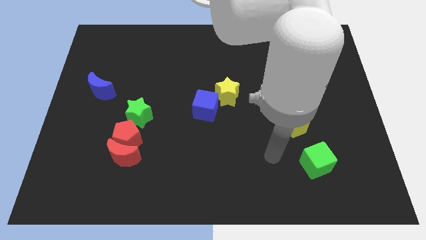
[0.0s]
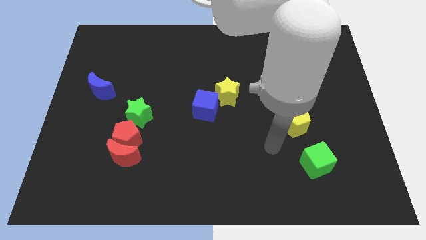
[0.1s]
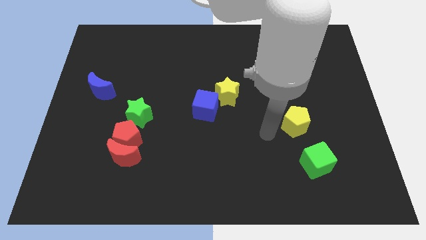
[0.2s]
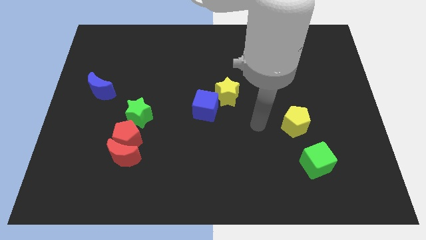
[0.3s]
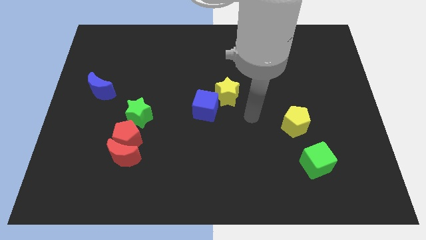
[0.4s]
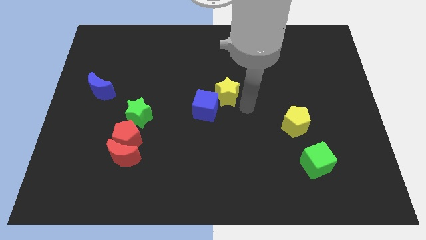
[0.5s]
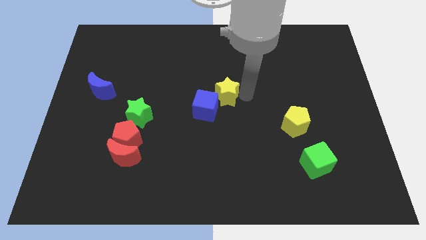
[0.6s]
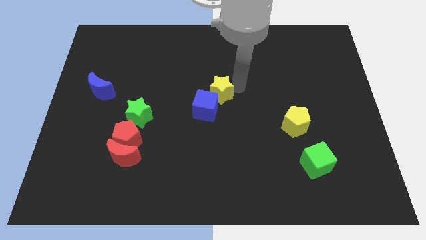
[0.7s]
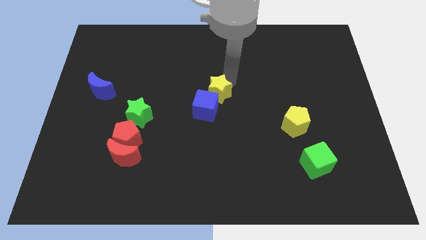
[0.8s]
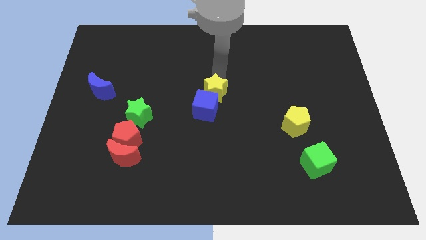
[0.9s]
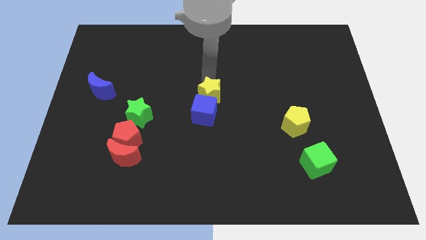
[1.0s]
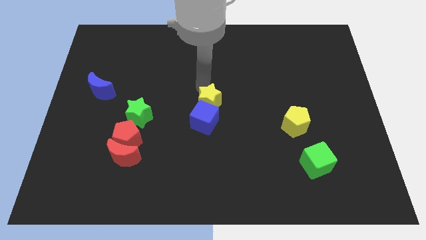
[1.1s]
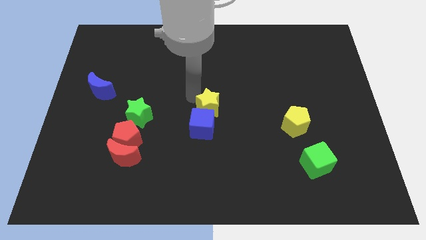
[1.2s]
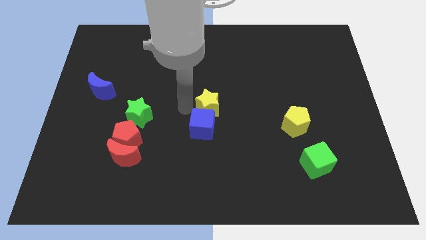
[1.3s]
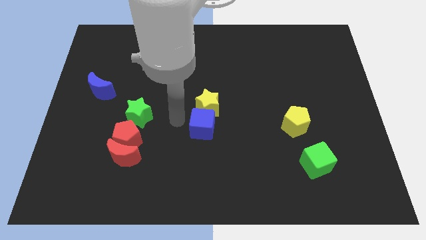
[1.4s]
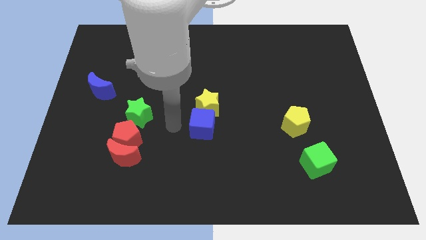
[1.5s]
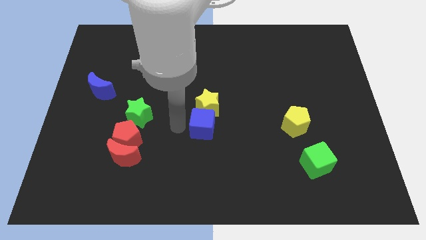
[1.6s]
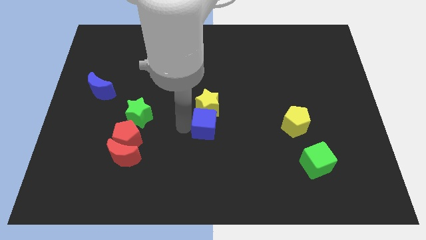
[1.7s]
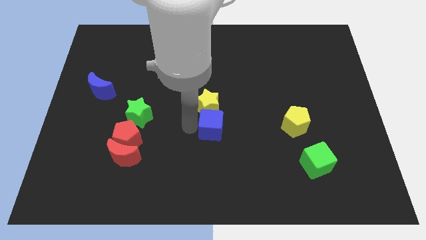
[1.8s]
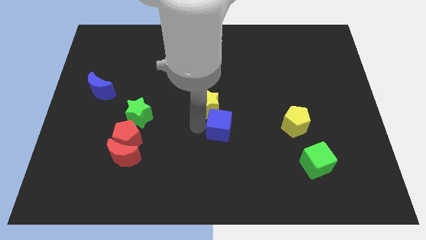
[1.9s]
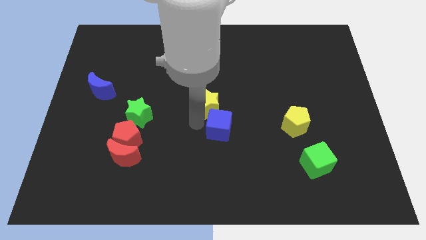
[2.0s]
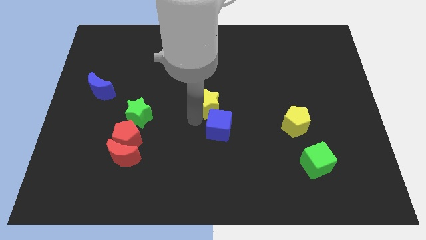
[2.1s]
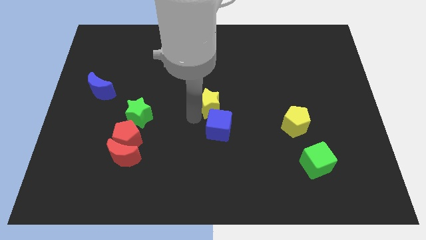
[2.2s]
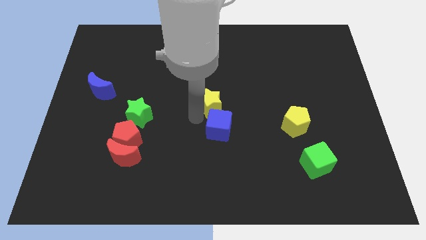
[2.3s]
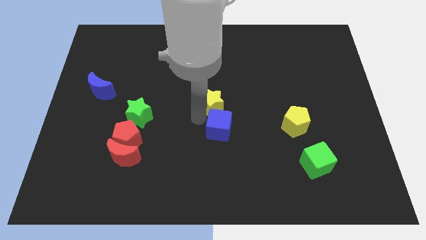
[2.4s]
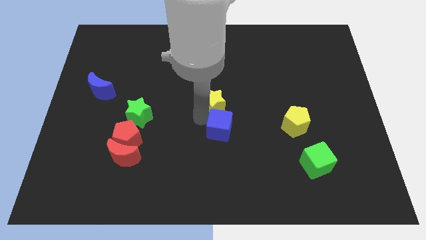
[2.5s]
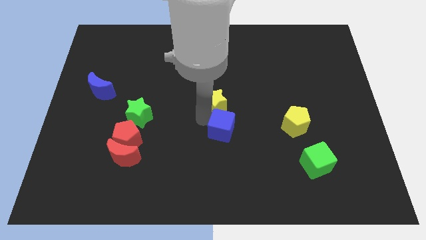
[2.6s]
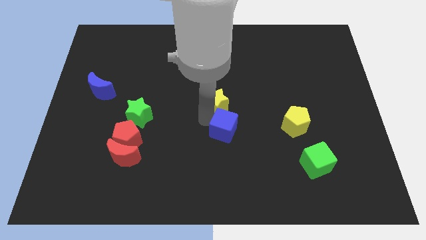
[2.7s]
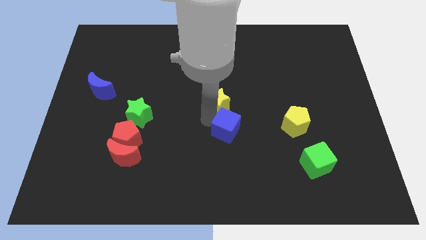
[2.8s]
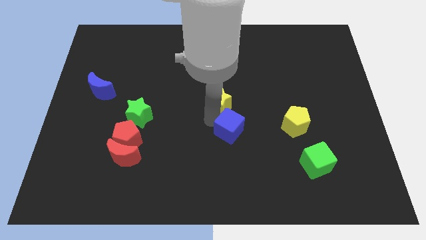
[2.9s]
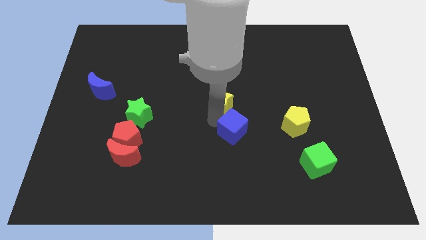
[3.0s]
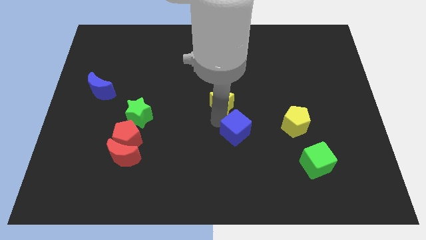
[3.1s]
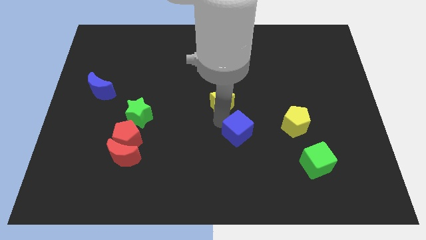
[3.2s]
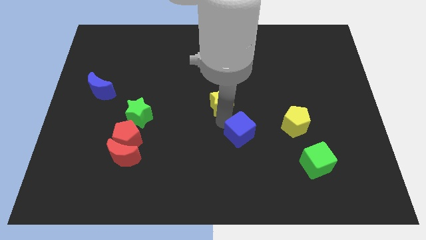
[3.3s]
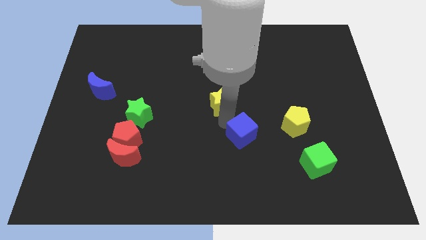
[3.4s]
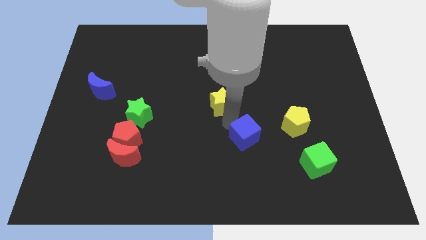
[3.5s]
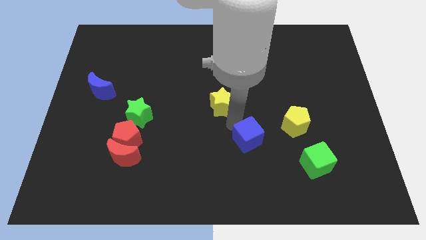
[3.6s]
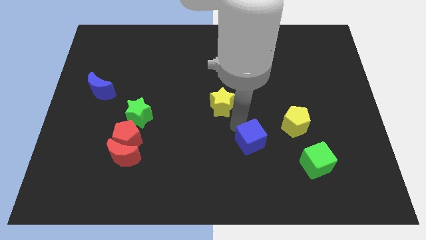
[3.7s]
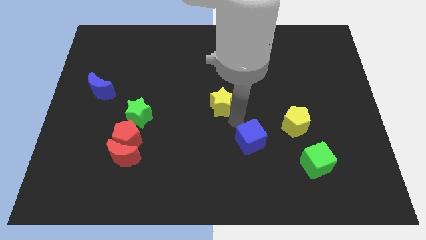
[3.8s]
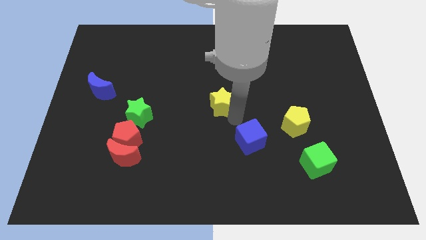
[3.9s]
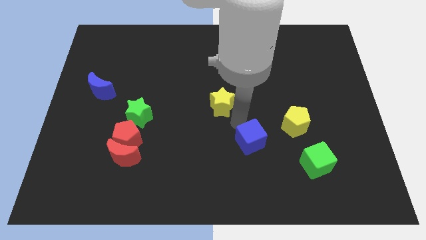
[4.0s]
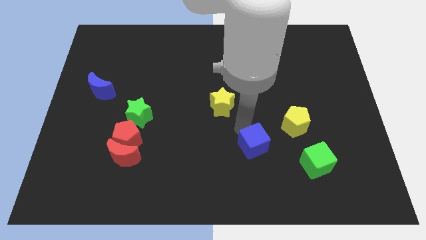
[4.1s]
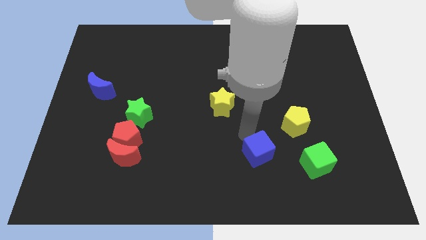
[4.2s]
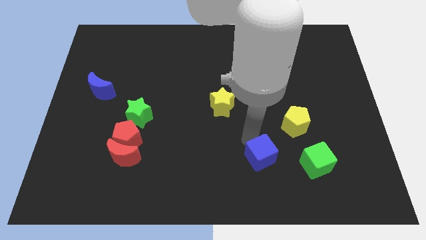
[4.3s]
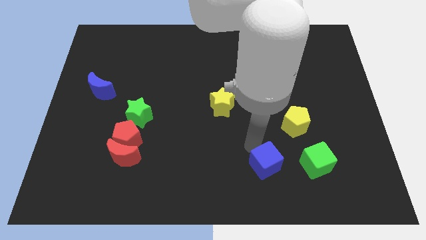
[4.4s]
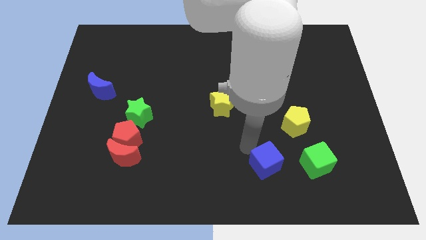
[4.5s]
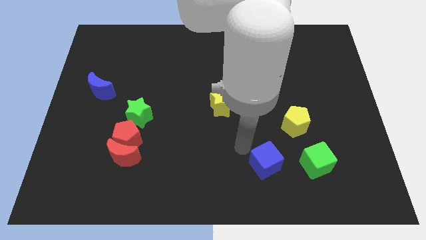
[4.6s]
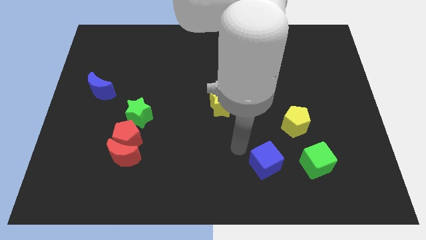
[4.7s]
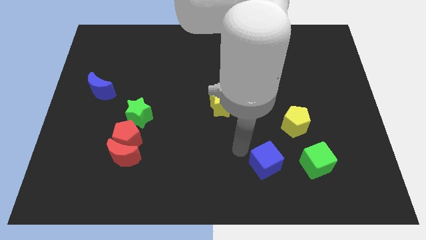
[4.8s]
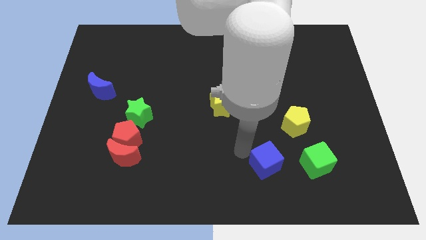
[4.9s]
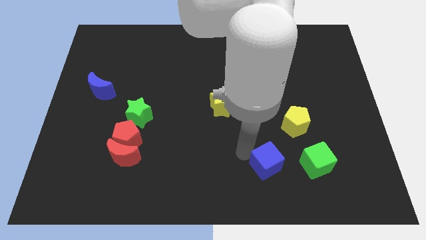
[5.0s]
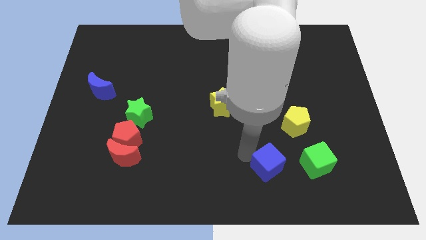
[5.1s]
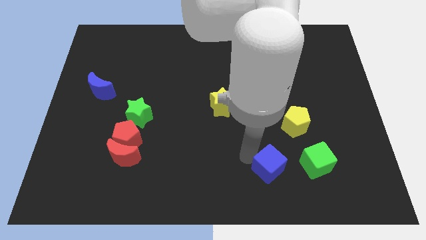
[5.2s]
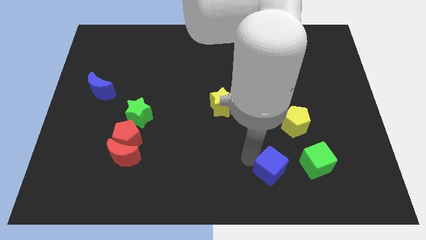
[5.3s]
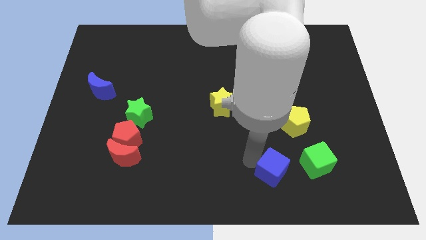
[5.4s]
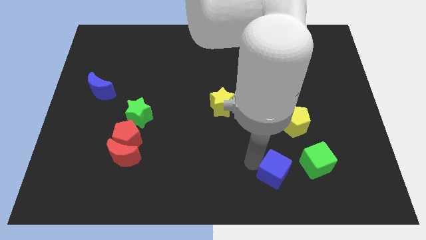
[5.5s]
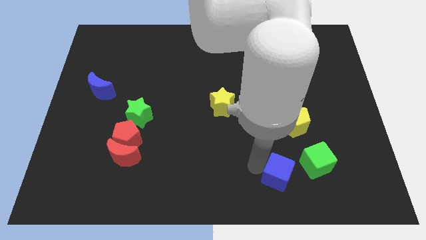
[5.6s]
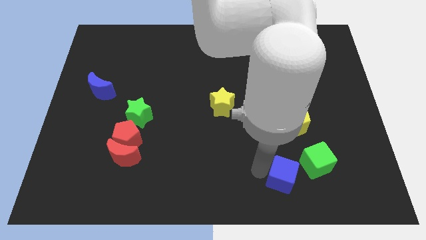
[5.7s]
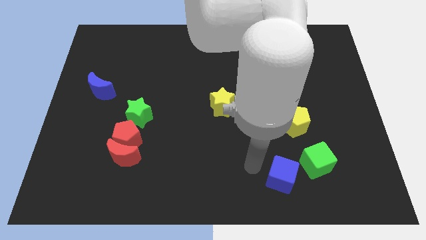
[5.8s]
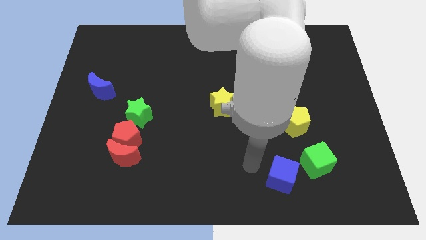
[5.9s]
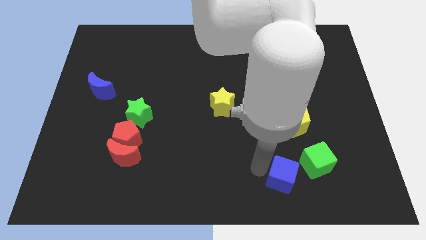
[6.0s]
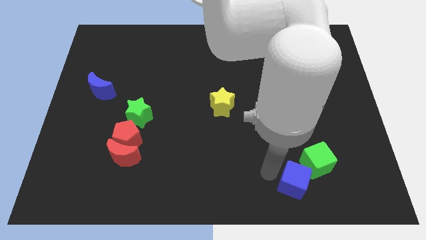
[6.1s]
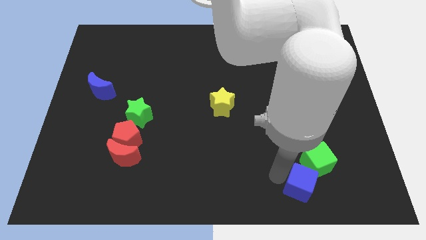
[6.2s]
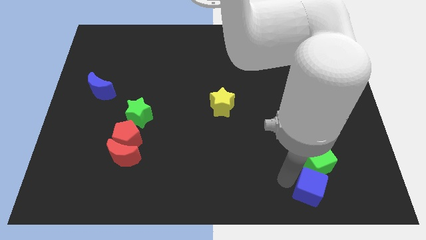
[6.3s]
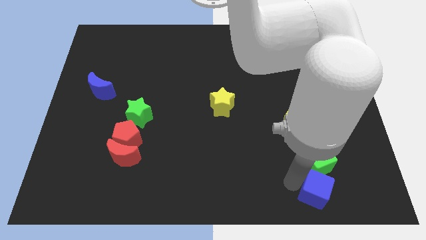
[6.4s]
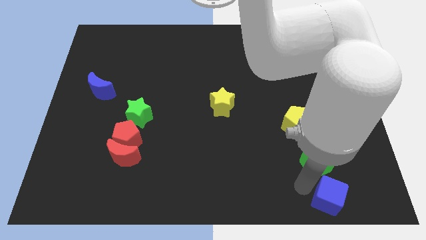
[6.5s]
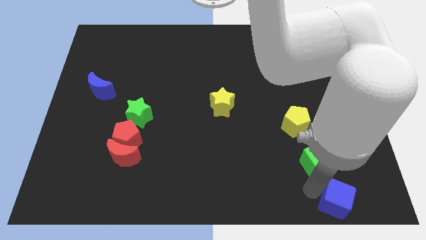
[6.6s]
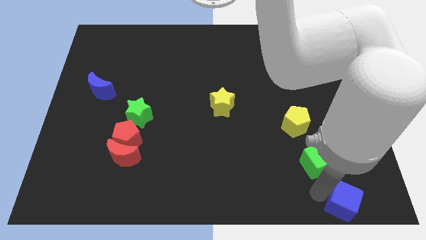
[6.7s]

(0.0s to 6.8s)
push the blue cube to the bottom right
